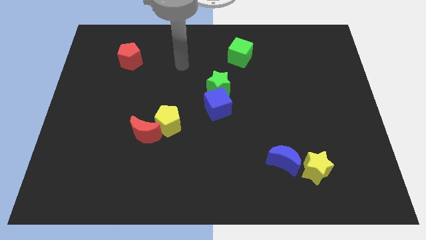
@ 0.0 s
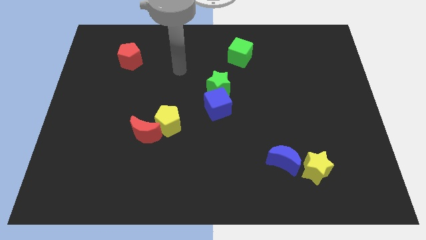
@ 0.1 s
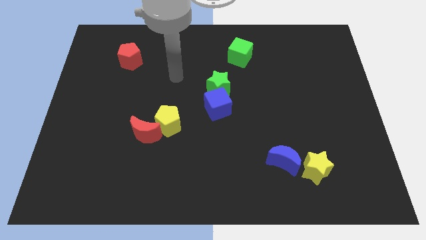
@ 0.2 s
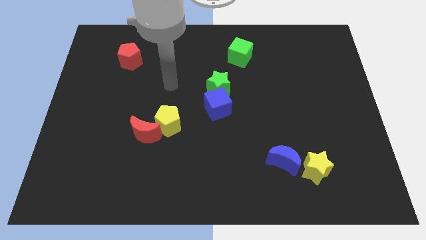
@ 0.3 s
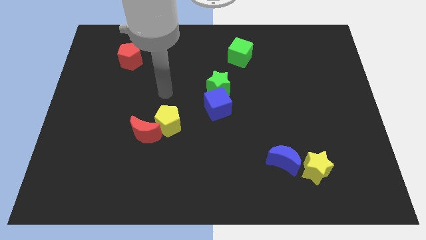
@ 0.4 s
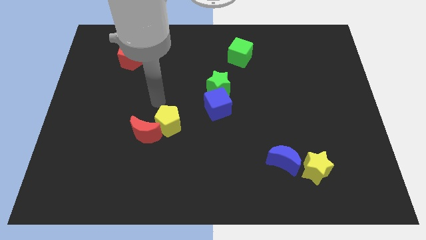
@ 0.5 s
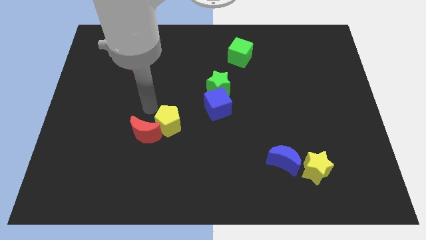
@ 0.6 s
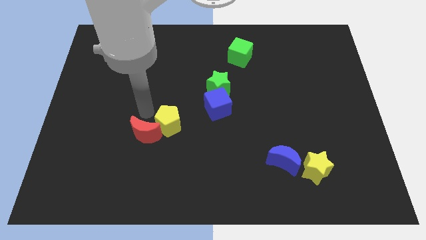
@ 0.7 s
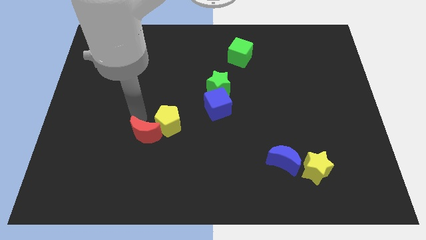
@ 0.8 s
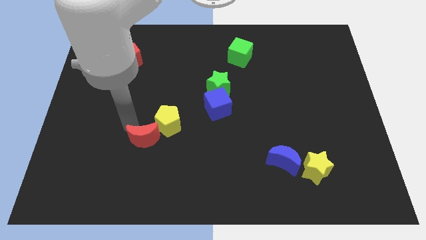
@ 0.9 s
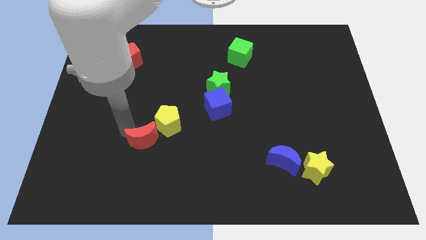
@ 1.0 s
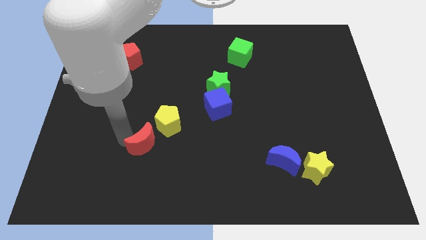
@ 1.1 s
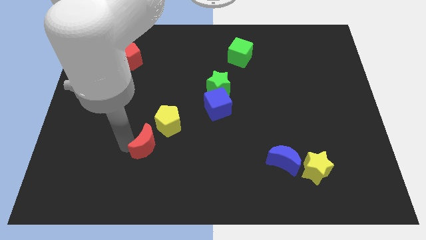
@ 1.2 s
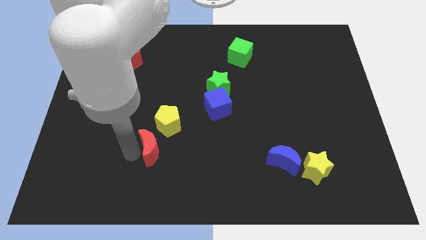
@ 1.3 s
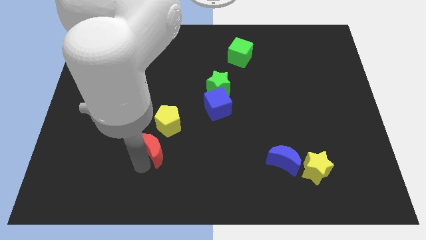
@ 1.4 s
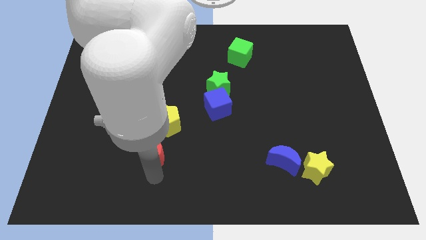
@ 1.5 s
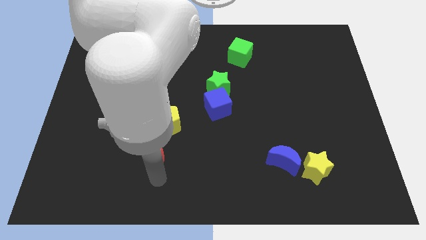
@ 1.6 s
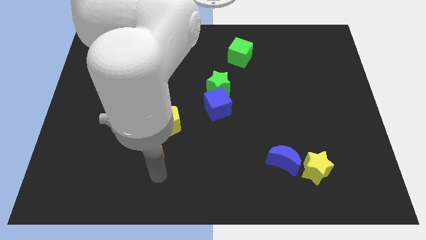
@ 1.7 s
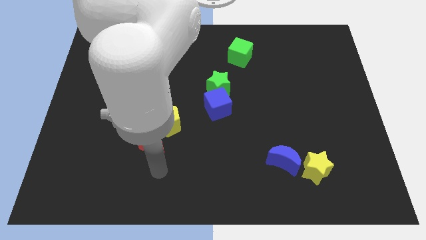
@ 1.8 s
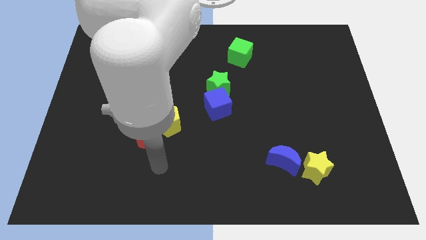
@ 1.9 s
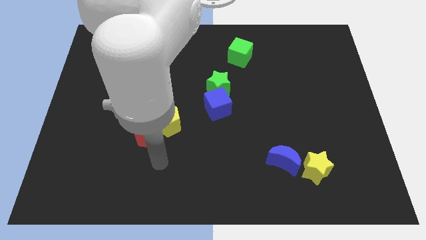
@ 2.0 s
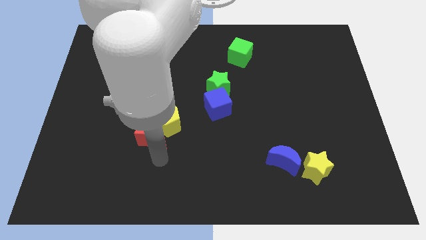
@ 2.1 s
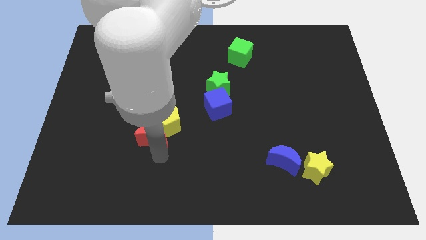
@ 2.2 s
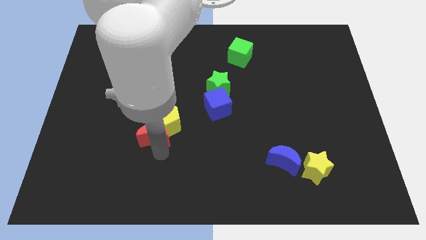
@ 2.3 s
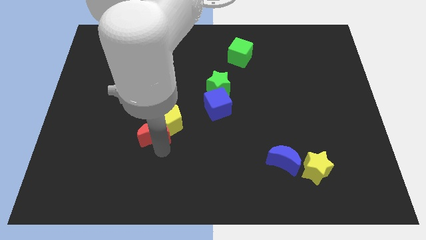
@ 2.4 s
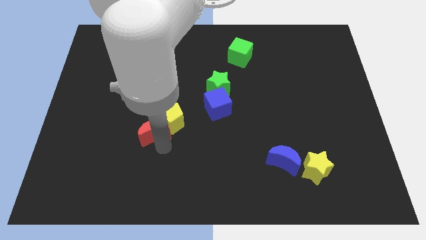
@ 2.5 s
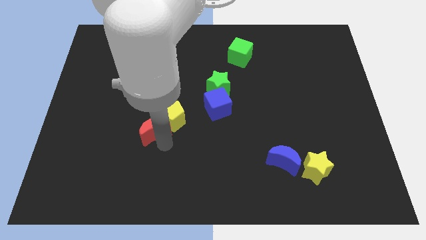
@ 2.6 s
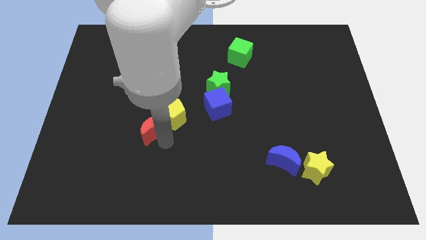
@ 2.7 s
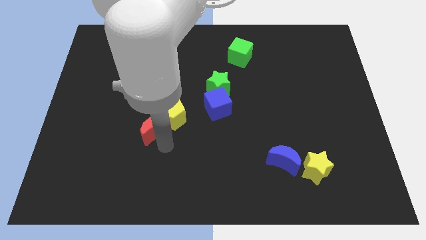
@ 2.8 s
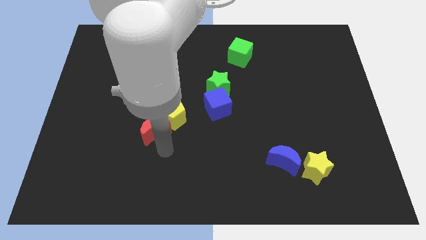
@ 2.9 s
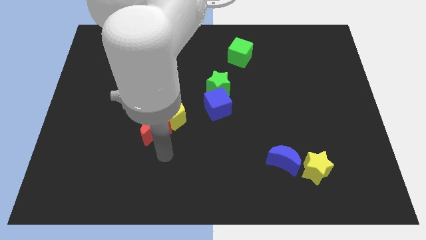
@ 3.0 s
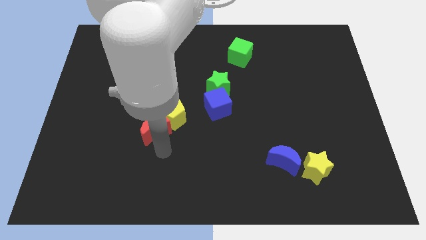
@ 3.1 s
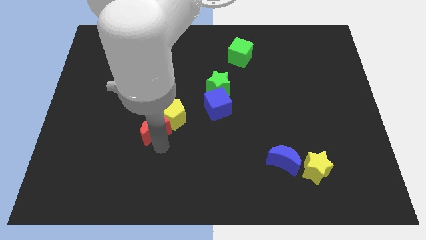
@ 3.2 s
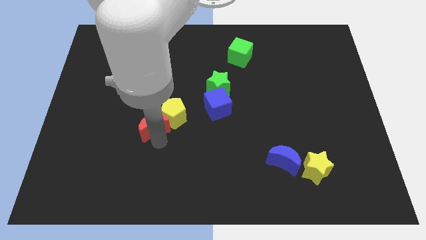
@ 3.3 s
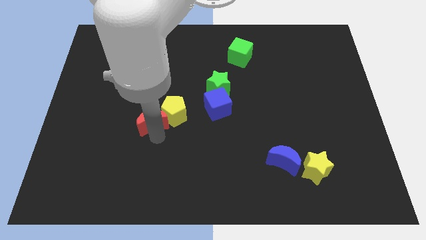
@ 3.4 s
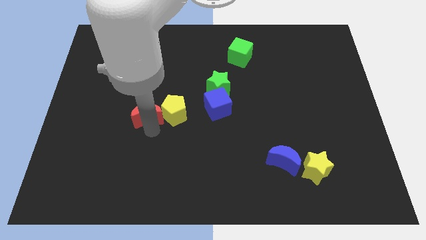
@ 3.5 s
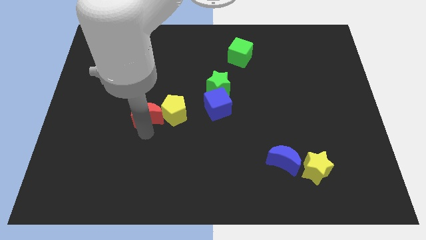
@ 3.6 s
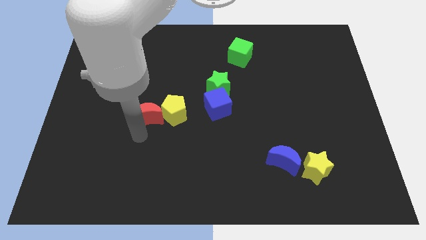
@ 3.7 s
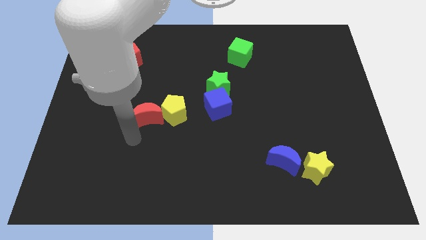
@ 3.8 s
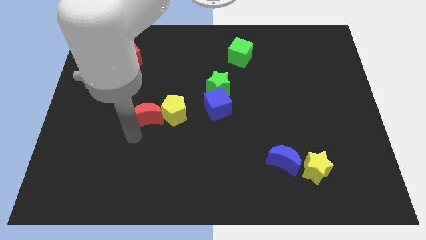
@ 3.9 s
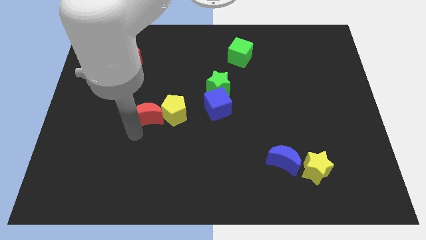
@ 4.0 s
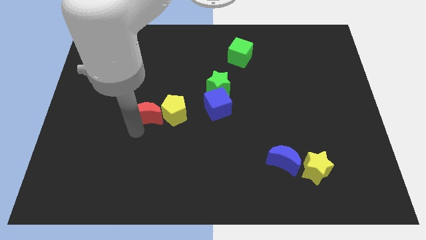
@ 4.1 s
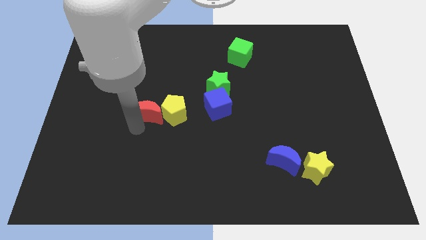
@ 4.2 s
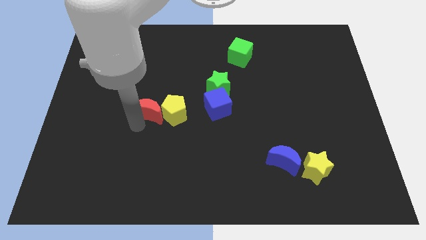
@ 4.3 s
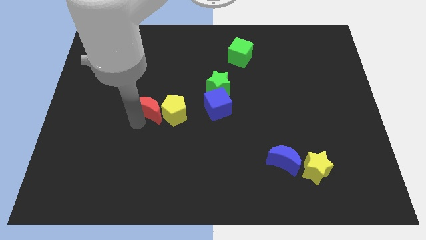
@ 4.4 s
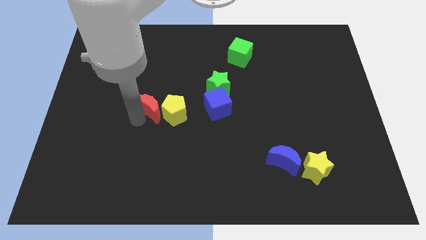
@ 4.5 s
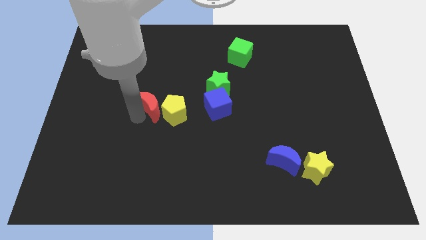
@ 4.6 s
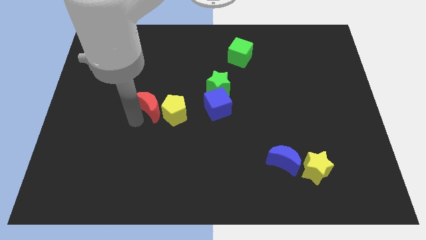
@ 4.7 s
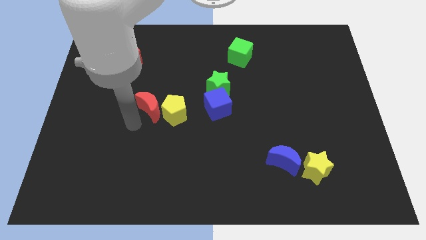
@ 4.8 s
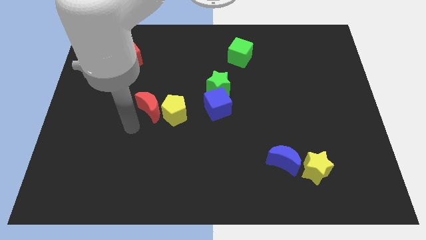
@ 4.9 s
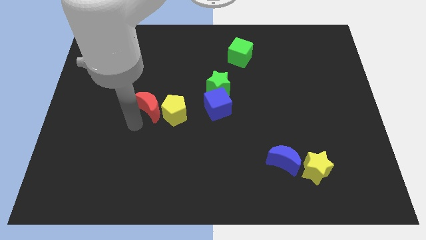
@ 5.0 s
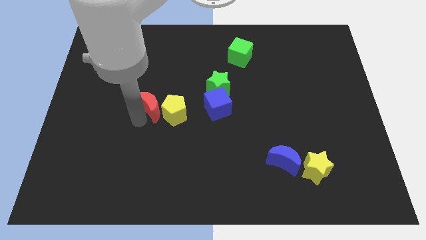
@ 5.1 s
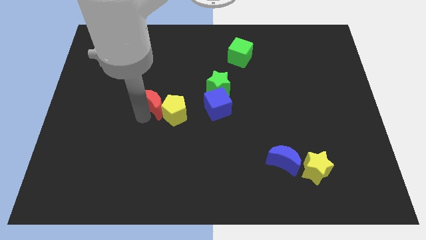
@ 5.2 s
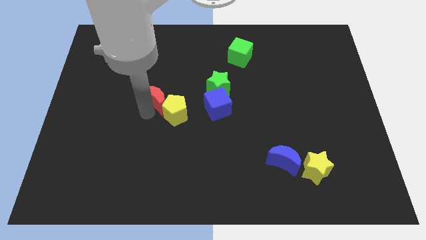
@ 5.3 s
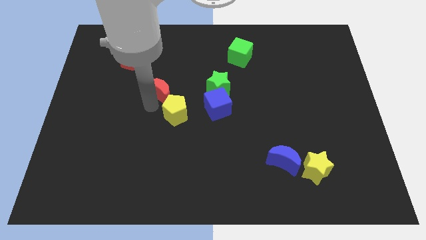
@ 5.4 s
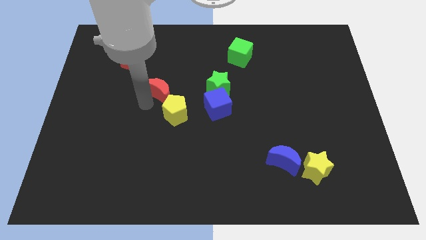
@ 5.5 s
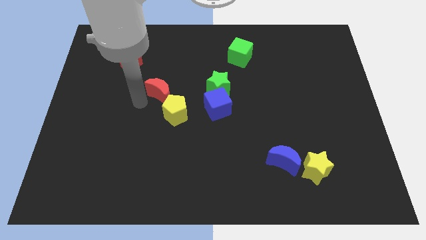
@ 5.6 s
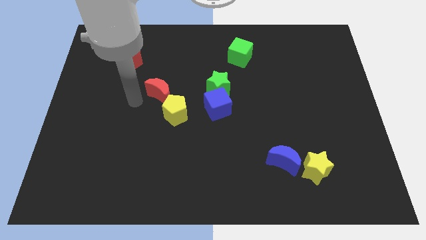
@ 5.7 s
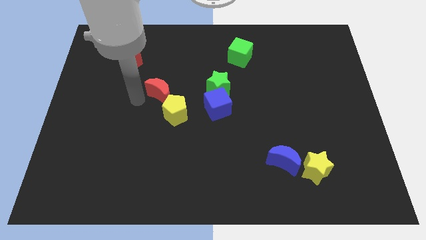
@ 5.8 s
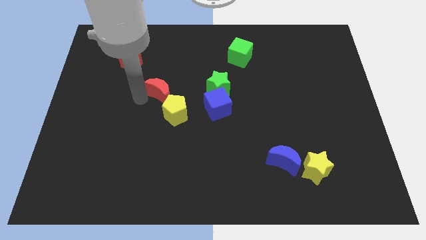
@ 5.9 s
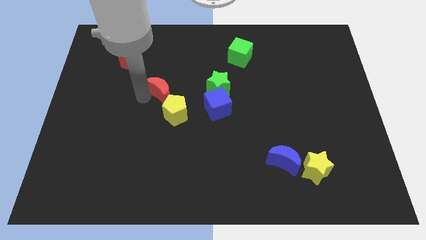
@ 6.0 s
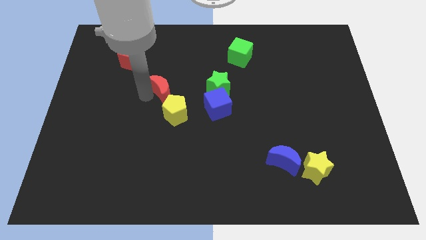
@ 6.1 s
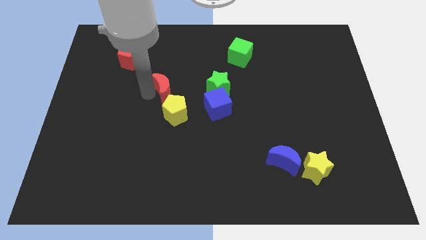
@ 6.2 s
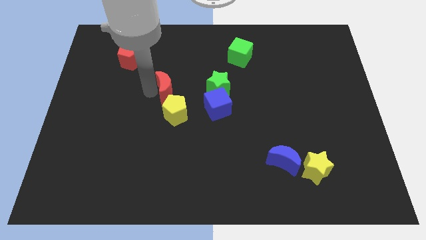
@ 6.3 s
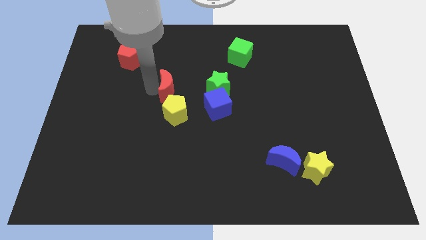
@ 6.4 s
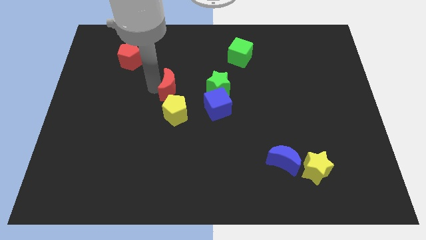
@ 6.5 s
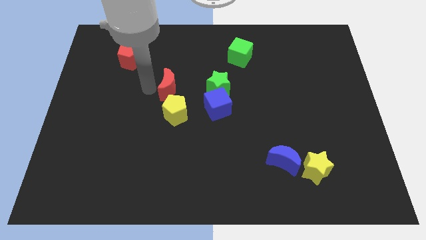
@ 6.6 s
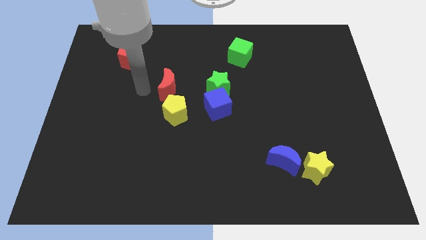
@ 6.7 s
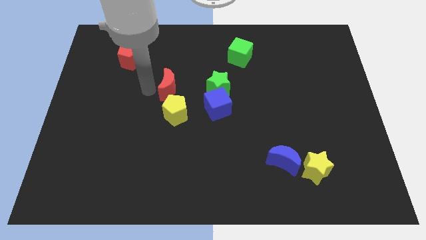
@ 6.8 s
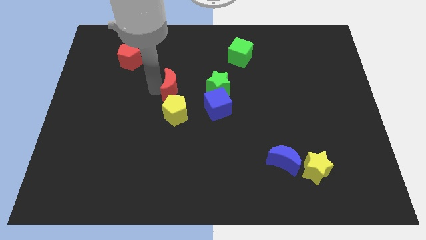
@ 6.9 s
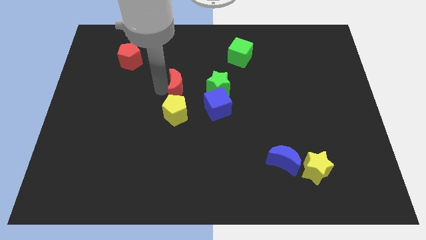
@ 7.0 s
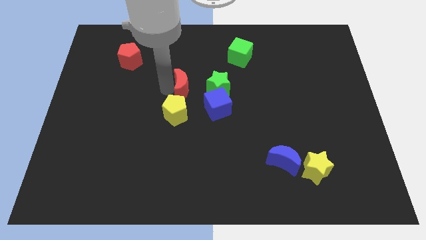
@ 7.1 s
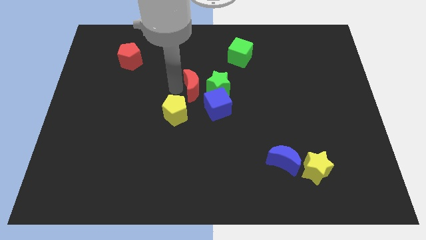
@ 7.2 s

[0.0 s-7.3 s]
push the red moon next to the green star
